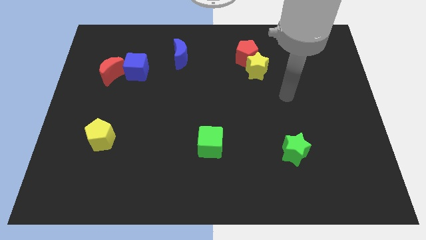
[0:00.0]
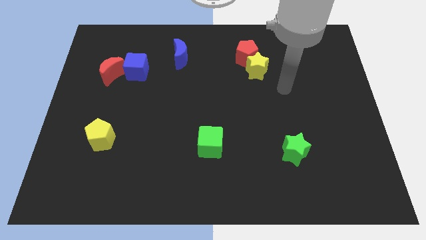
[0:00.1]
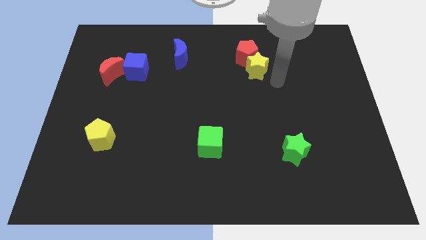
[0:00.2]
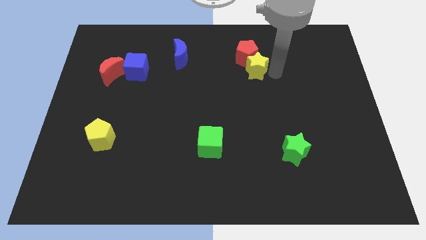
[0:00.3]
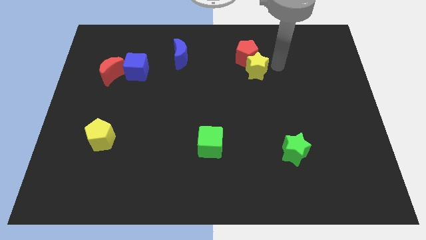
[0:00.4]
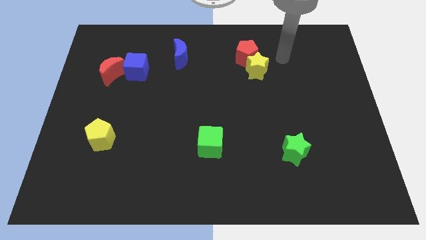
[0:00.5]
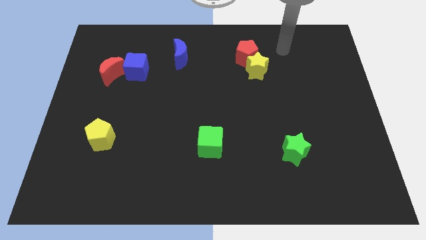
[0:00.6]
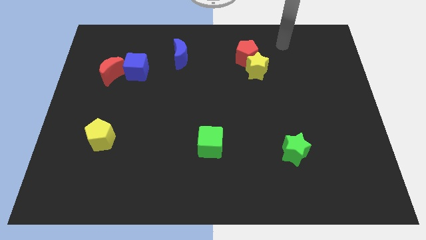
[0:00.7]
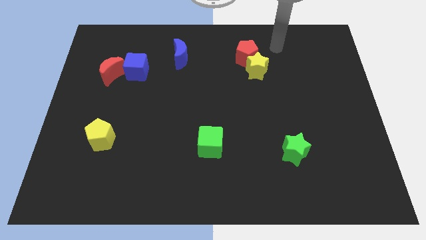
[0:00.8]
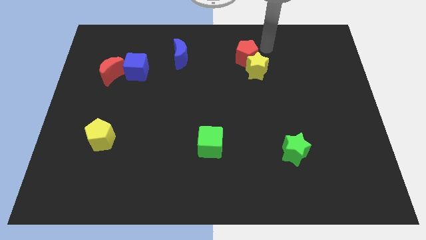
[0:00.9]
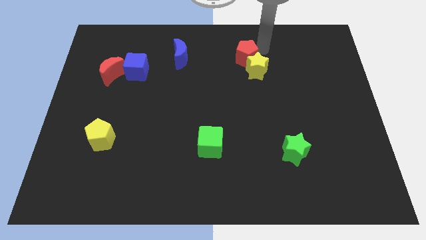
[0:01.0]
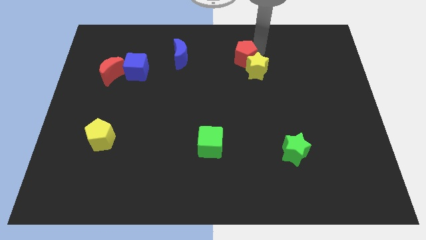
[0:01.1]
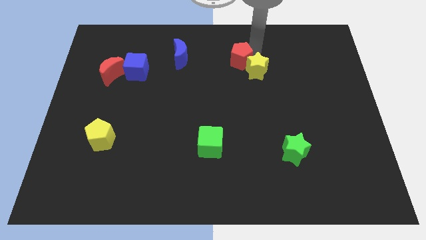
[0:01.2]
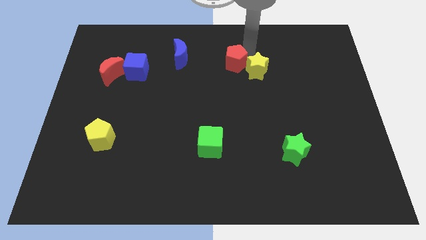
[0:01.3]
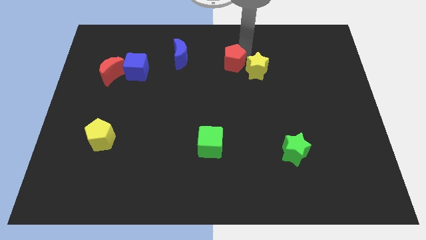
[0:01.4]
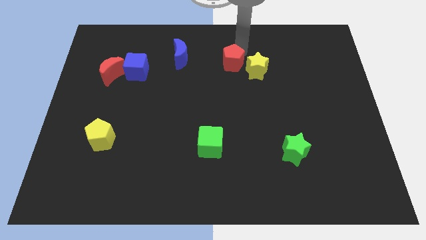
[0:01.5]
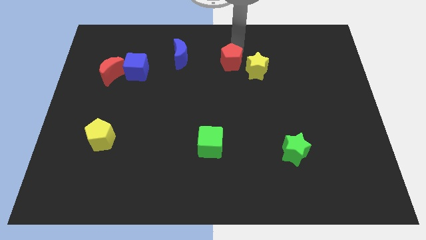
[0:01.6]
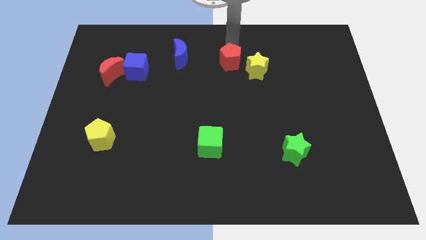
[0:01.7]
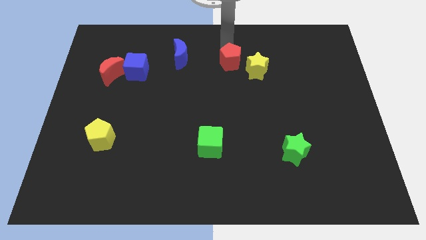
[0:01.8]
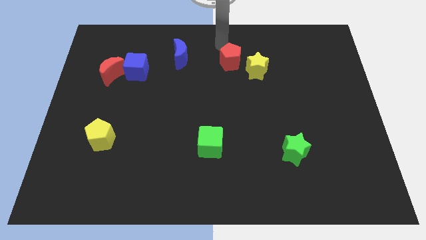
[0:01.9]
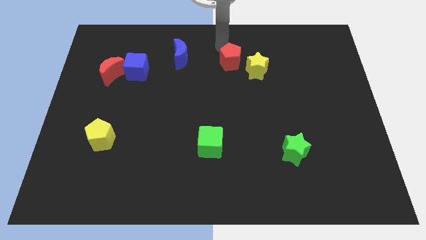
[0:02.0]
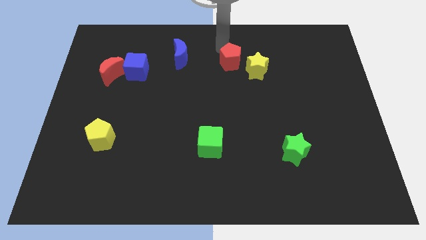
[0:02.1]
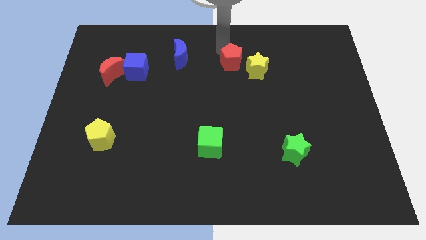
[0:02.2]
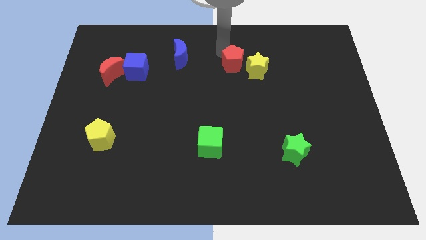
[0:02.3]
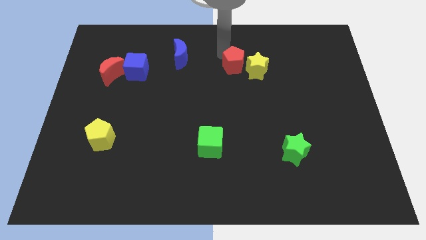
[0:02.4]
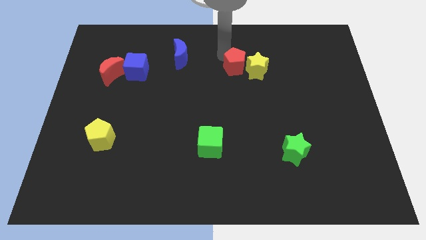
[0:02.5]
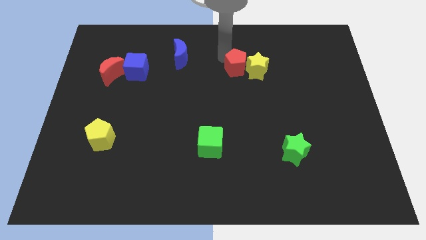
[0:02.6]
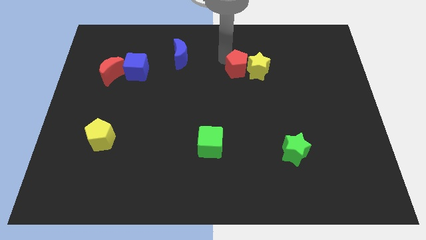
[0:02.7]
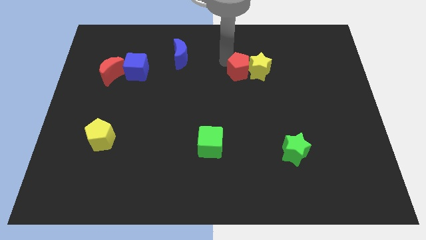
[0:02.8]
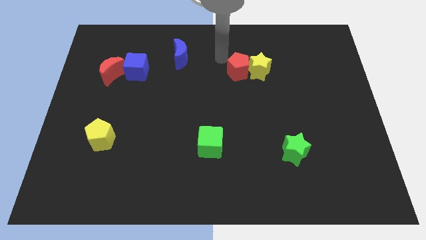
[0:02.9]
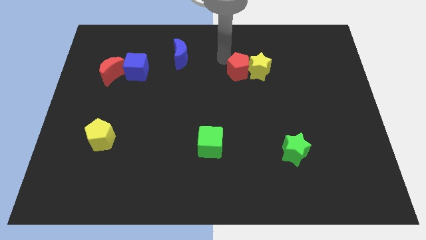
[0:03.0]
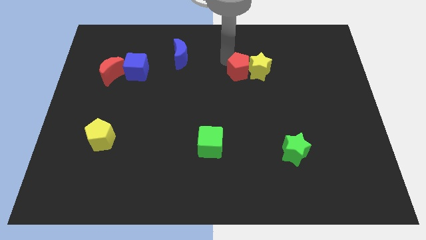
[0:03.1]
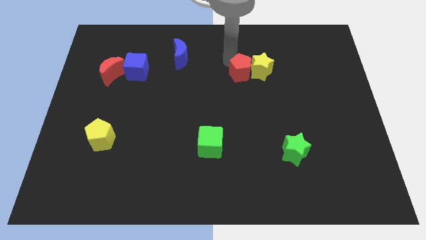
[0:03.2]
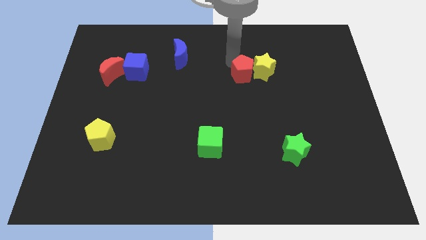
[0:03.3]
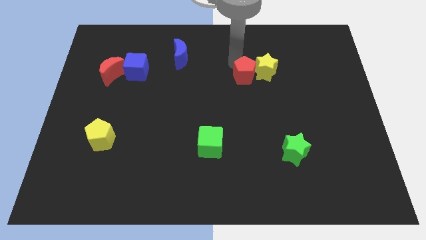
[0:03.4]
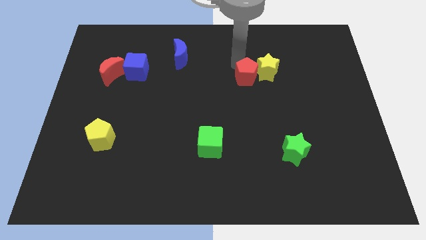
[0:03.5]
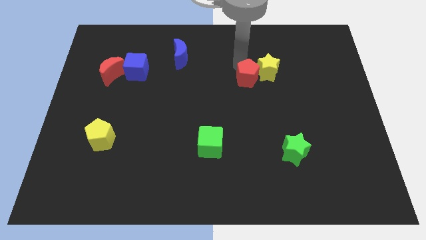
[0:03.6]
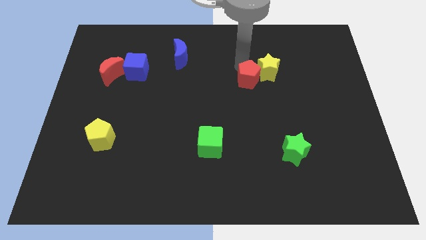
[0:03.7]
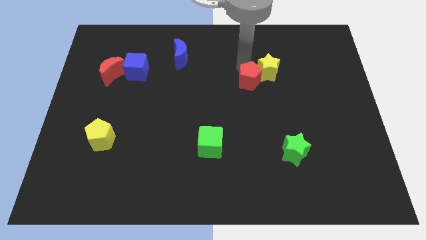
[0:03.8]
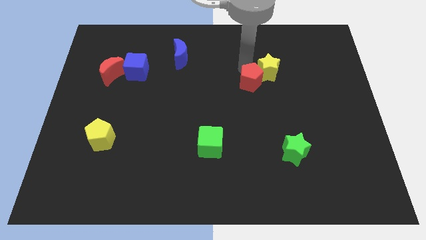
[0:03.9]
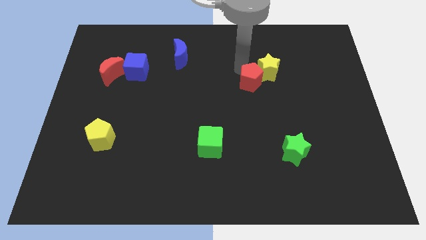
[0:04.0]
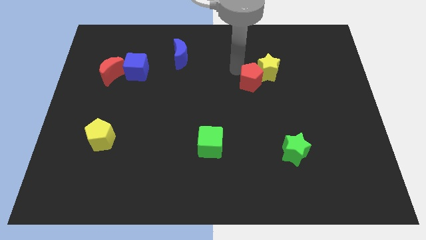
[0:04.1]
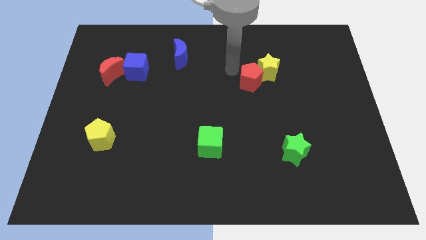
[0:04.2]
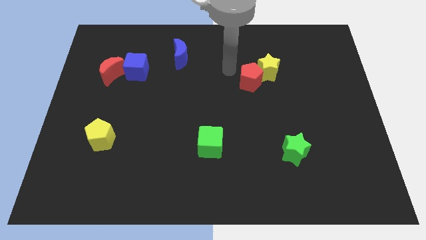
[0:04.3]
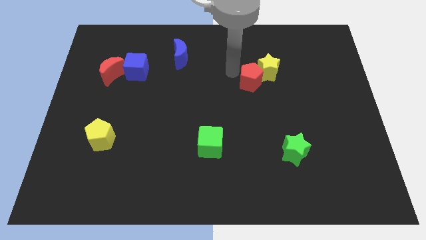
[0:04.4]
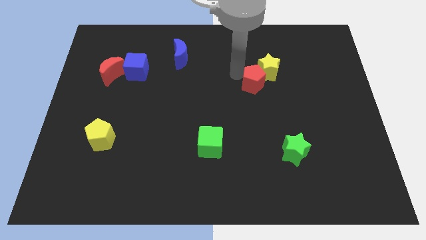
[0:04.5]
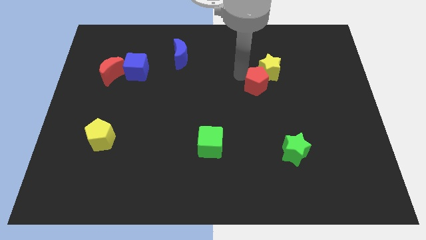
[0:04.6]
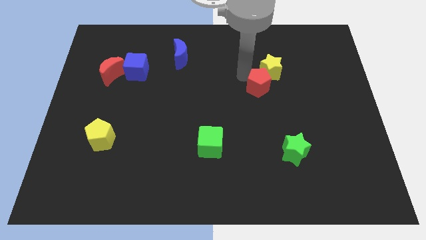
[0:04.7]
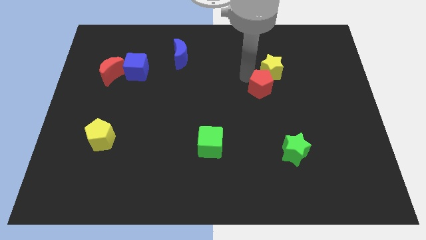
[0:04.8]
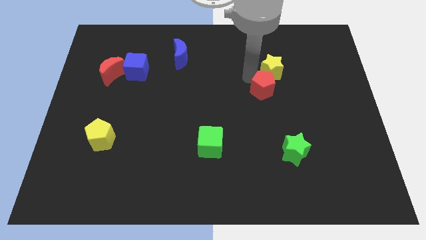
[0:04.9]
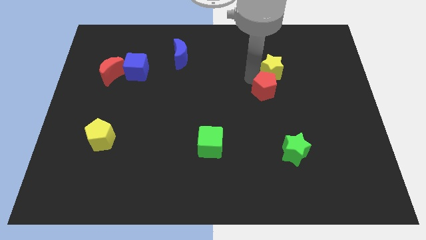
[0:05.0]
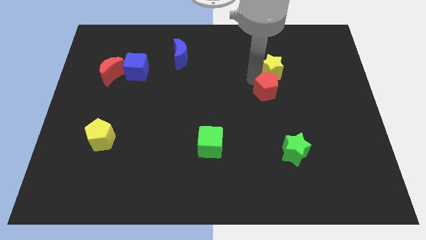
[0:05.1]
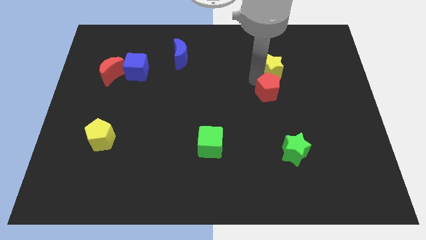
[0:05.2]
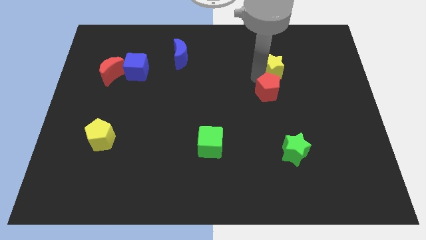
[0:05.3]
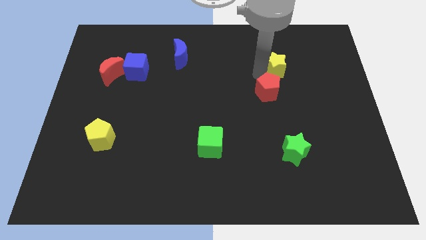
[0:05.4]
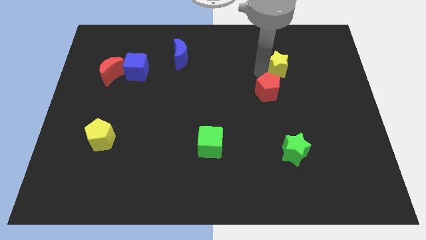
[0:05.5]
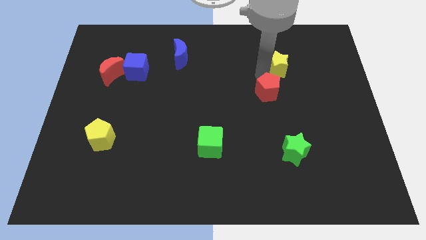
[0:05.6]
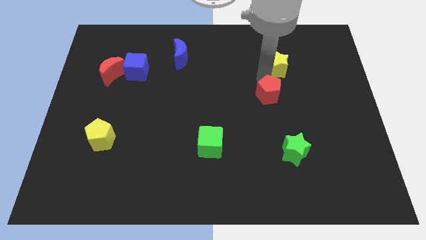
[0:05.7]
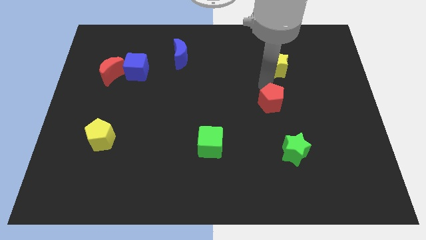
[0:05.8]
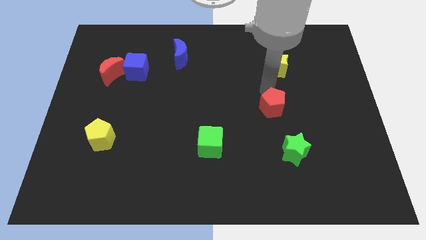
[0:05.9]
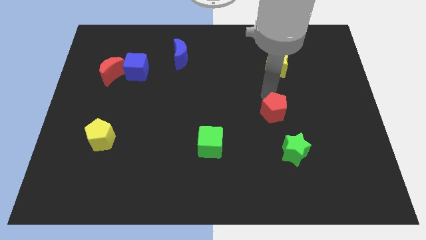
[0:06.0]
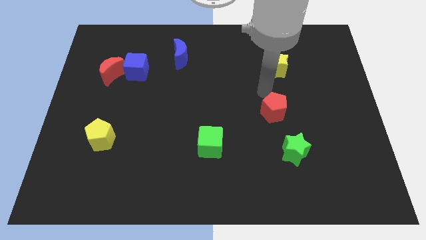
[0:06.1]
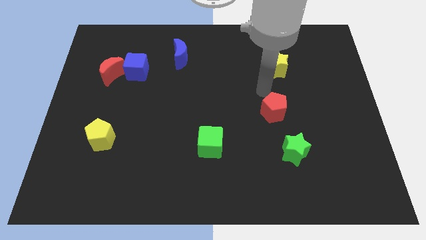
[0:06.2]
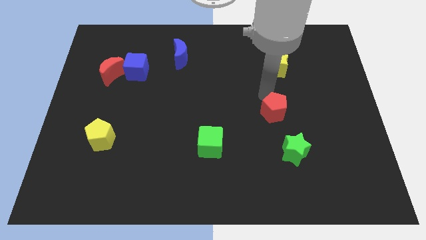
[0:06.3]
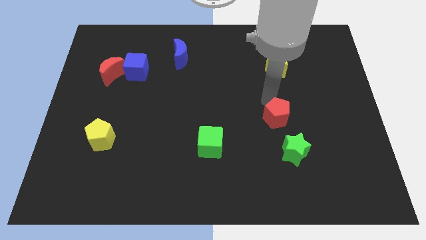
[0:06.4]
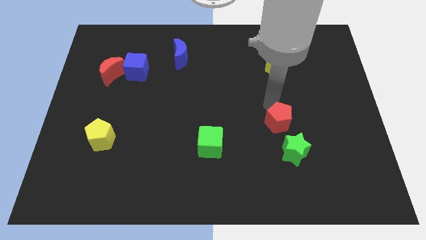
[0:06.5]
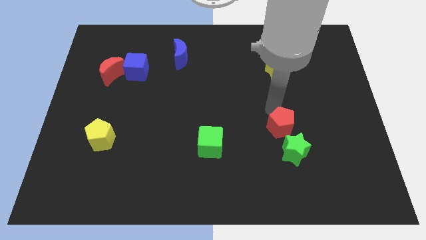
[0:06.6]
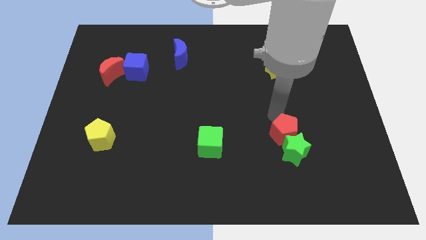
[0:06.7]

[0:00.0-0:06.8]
put the red pentagon towards the green star
